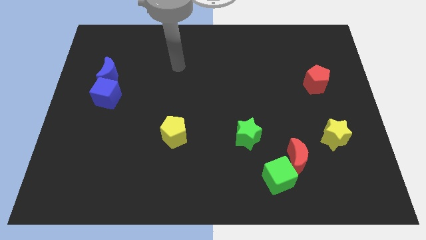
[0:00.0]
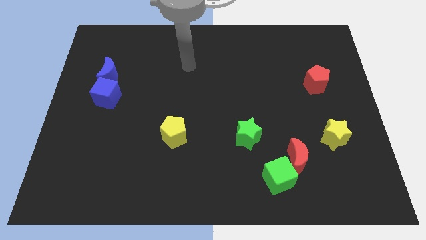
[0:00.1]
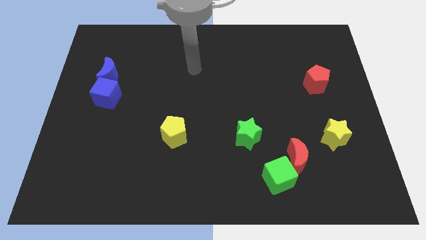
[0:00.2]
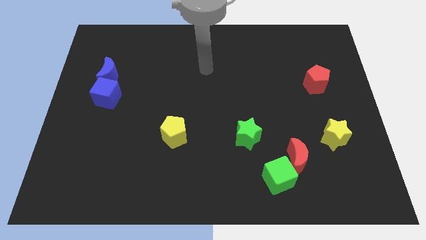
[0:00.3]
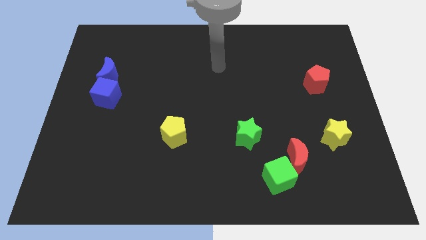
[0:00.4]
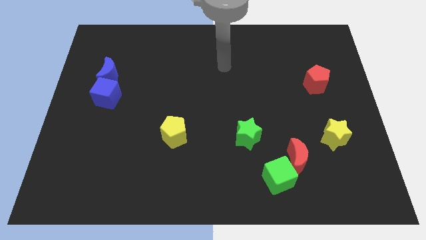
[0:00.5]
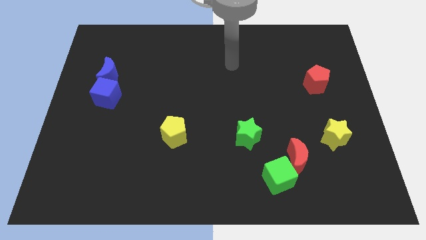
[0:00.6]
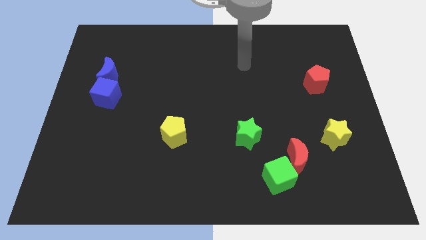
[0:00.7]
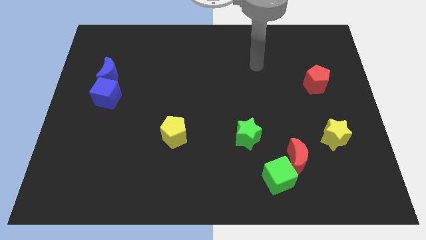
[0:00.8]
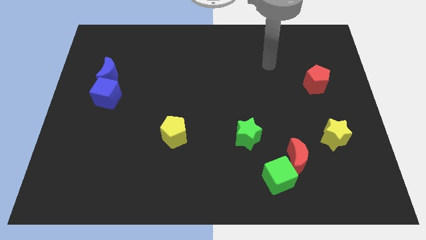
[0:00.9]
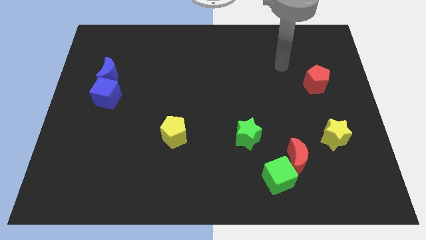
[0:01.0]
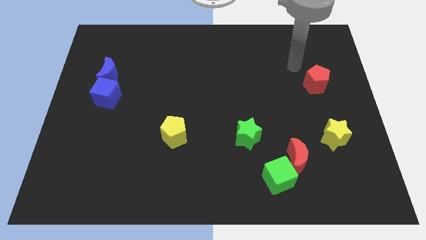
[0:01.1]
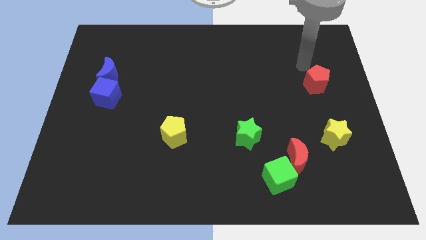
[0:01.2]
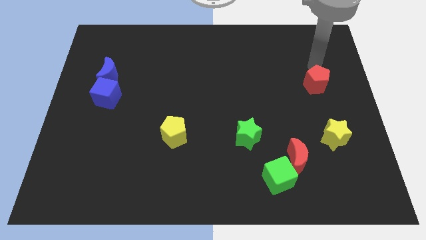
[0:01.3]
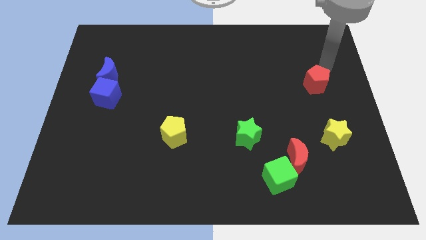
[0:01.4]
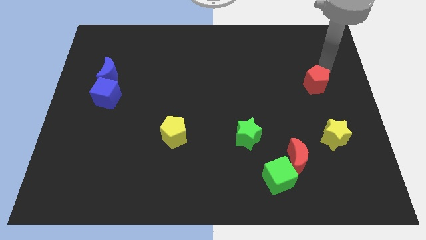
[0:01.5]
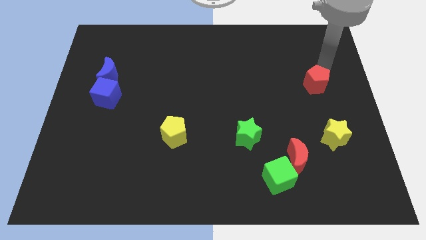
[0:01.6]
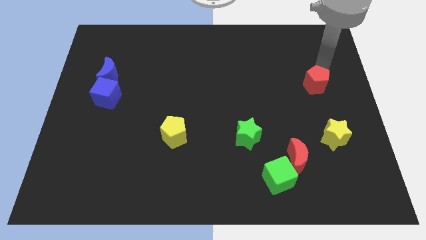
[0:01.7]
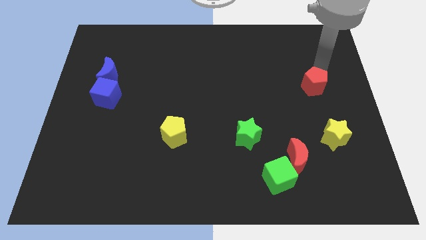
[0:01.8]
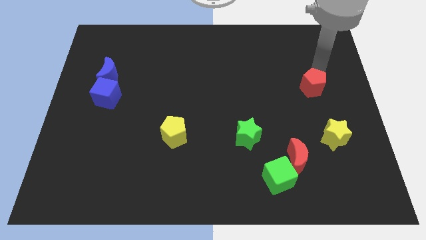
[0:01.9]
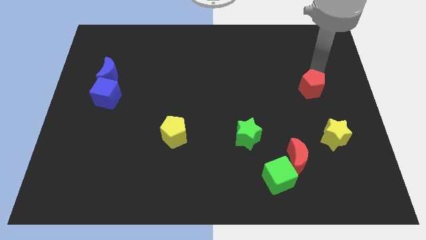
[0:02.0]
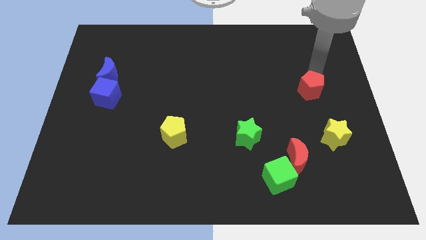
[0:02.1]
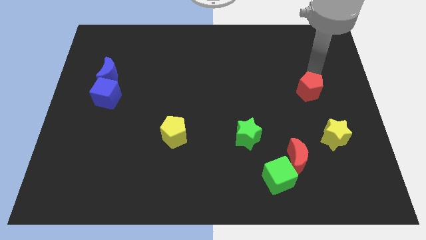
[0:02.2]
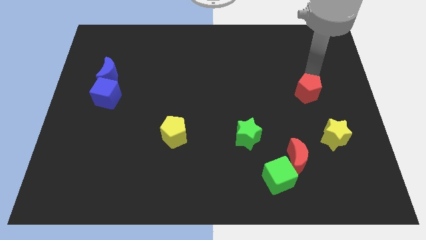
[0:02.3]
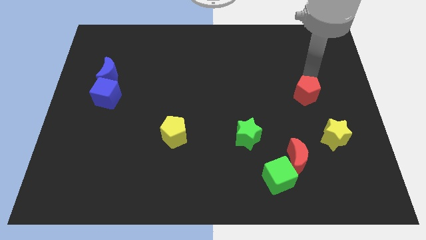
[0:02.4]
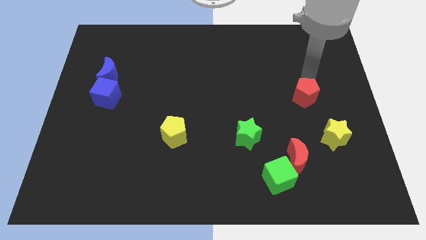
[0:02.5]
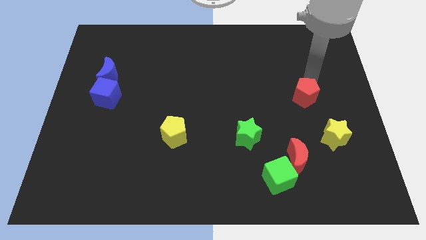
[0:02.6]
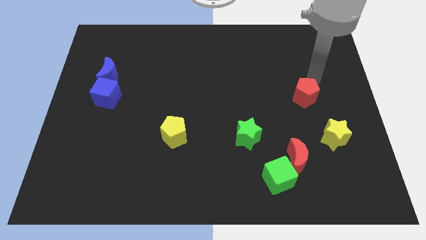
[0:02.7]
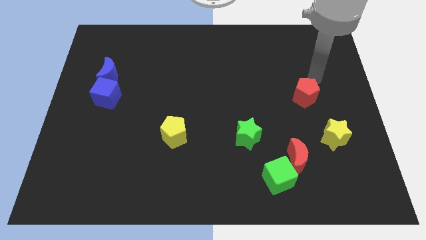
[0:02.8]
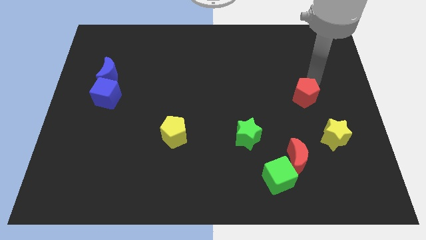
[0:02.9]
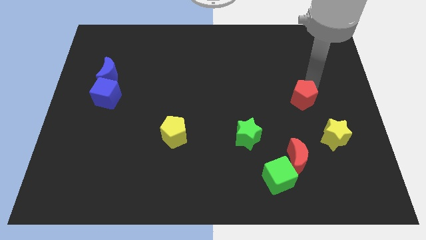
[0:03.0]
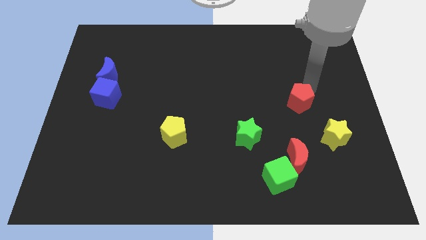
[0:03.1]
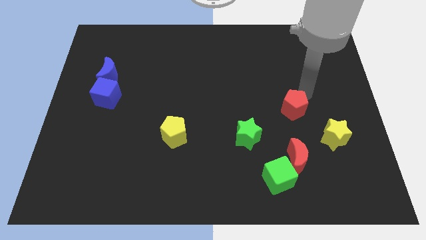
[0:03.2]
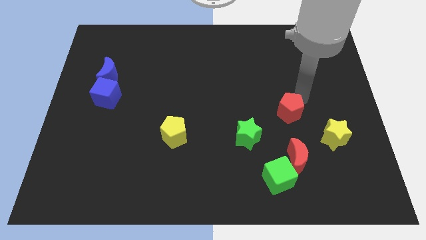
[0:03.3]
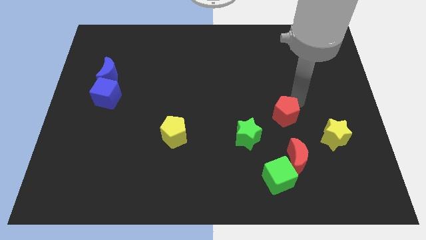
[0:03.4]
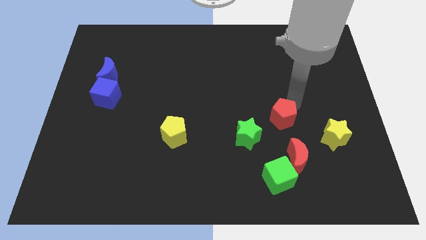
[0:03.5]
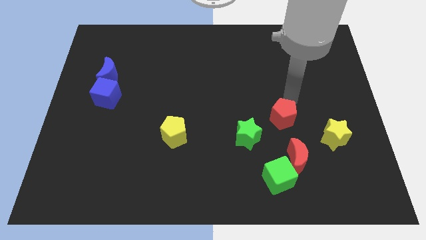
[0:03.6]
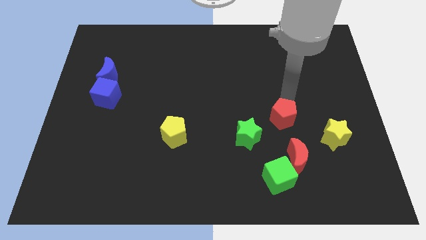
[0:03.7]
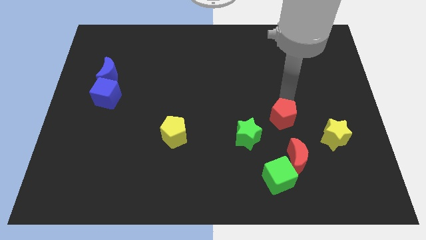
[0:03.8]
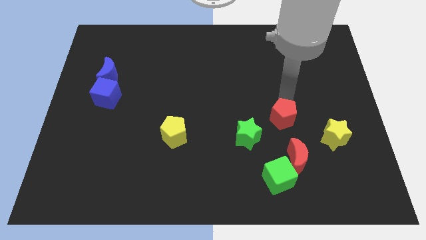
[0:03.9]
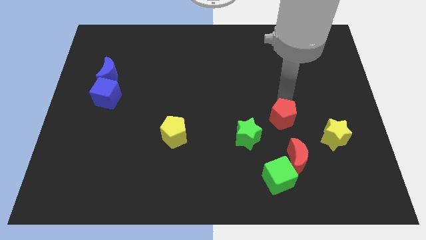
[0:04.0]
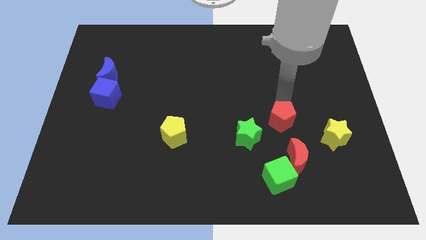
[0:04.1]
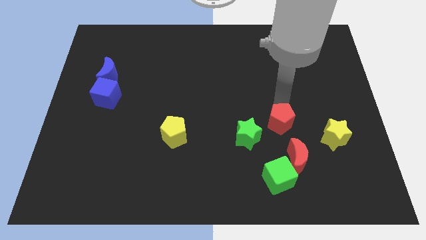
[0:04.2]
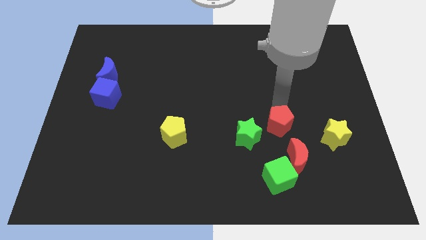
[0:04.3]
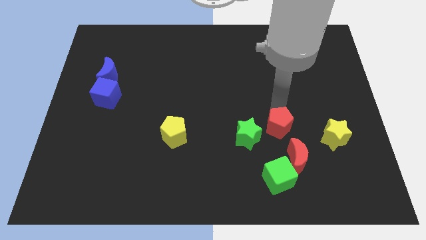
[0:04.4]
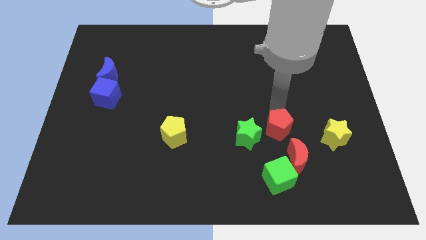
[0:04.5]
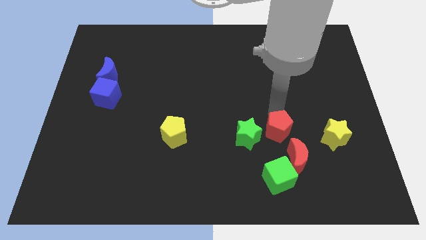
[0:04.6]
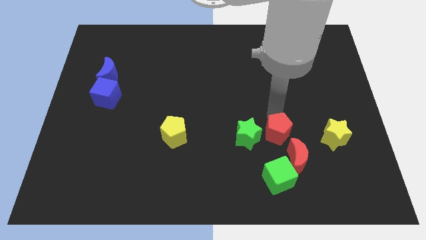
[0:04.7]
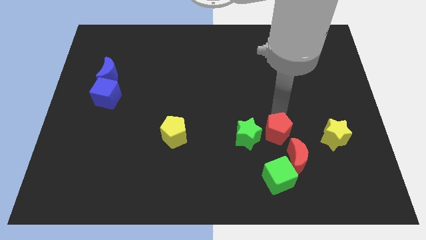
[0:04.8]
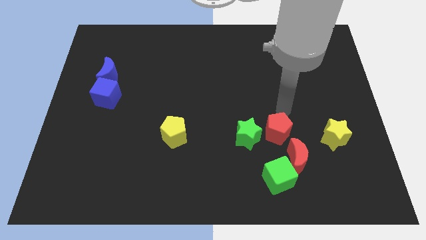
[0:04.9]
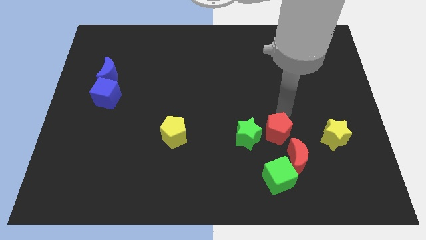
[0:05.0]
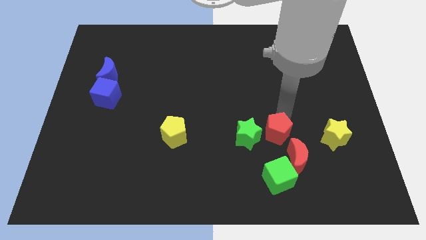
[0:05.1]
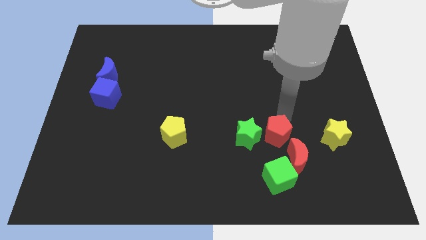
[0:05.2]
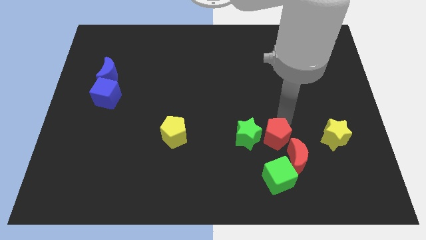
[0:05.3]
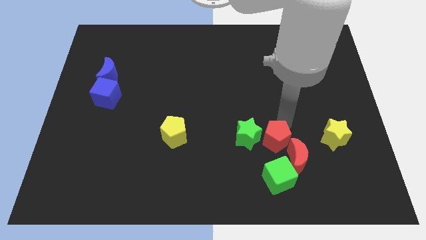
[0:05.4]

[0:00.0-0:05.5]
move the red pentagon down and left

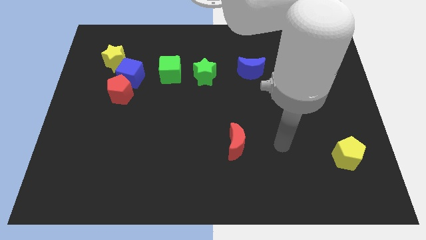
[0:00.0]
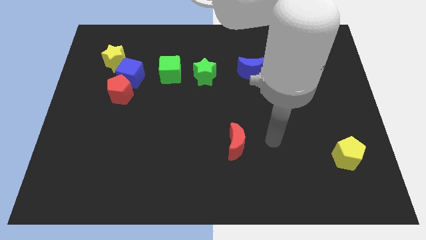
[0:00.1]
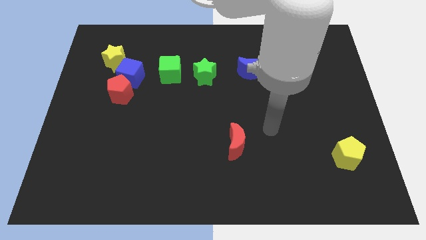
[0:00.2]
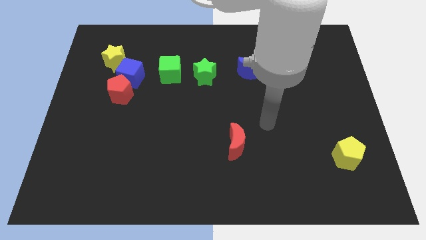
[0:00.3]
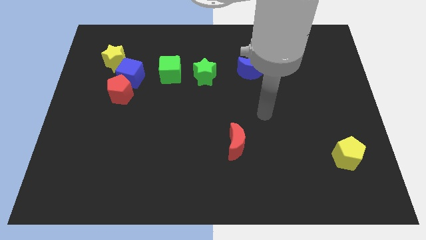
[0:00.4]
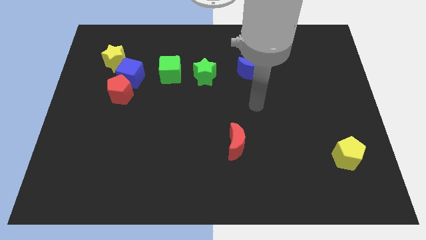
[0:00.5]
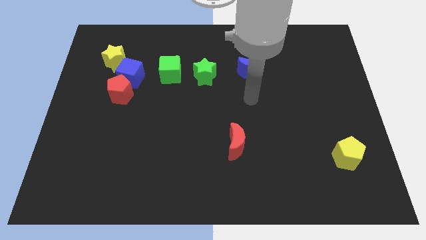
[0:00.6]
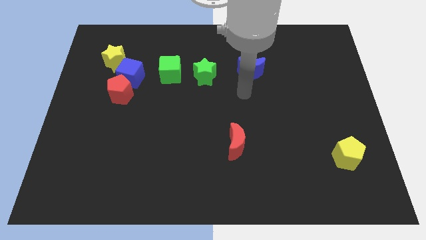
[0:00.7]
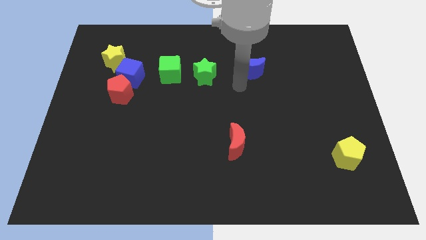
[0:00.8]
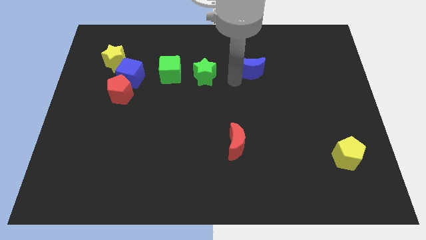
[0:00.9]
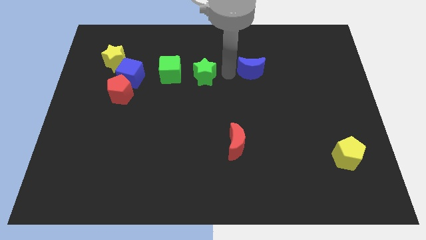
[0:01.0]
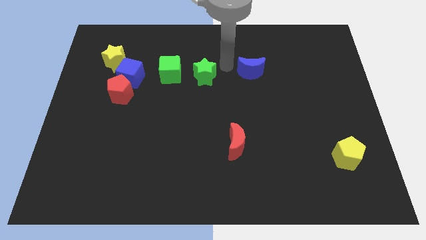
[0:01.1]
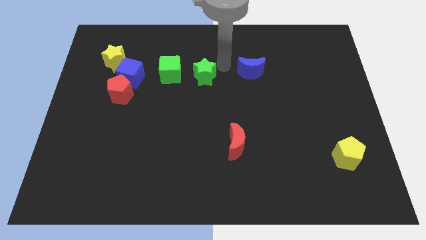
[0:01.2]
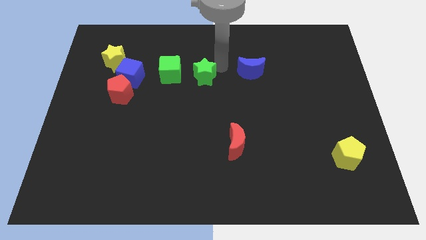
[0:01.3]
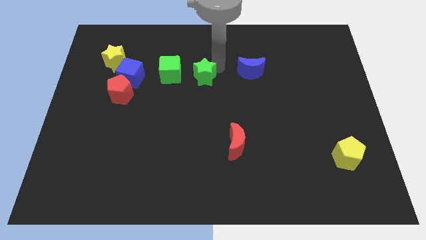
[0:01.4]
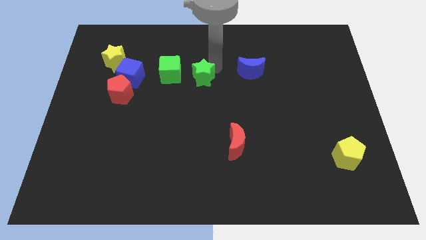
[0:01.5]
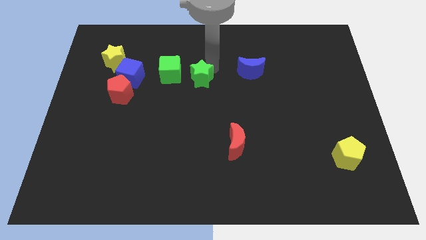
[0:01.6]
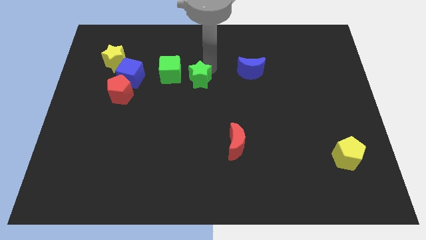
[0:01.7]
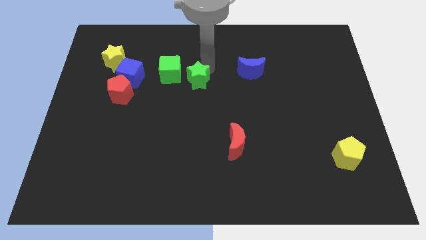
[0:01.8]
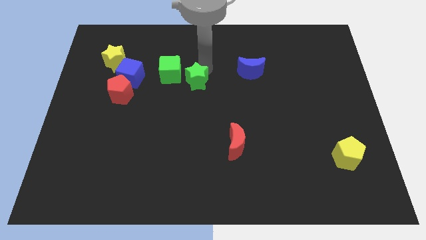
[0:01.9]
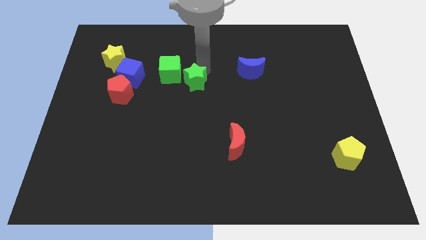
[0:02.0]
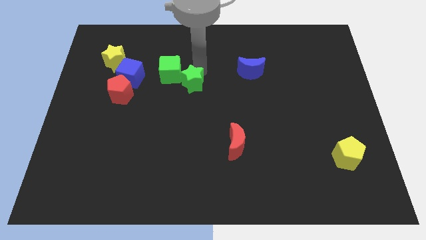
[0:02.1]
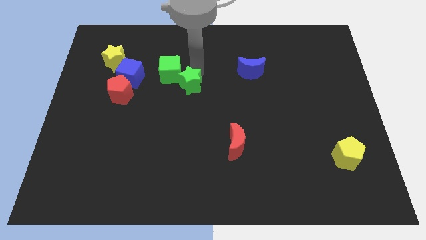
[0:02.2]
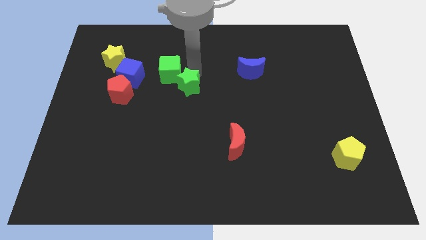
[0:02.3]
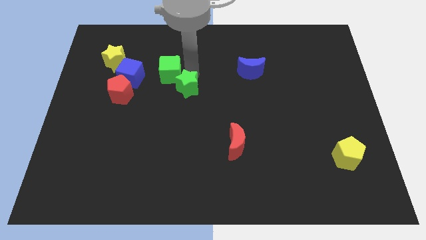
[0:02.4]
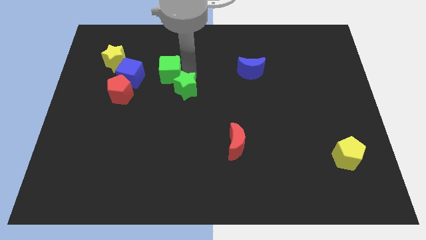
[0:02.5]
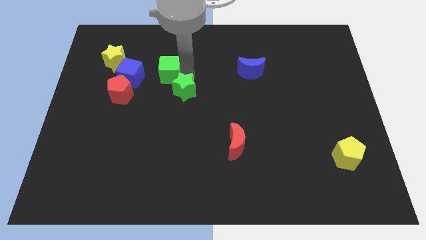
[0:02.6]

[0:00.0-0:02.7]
move the green star down and left diagonally slightly
